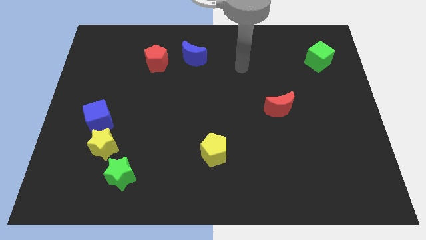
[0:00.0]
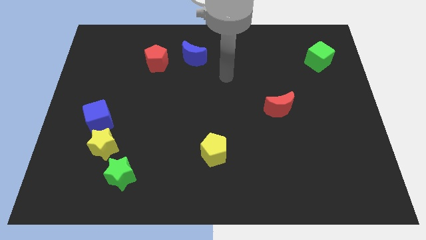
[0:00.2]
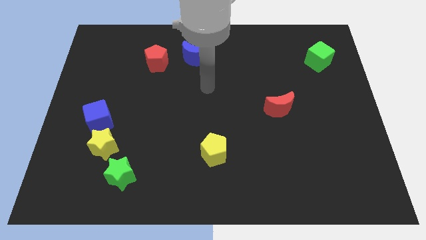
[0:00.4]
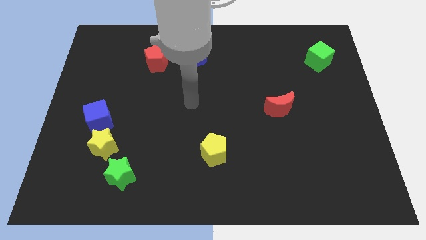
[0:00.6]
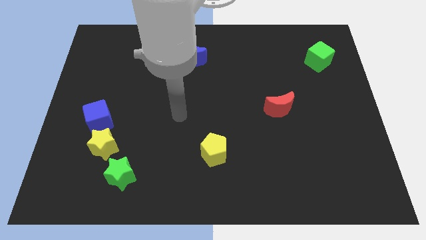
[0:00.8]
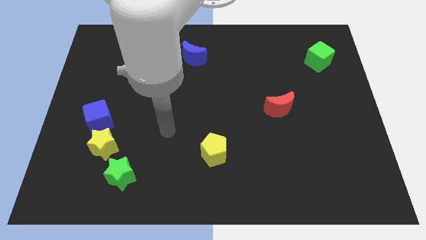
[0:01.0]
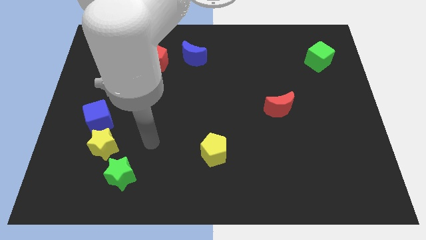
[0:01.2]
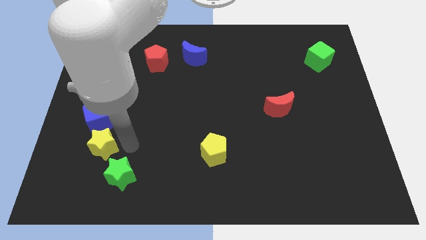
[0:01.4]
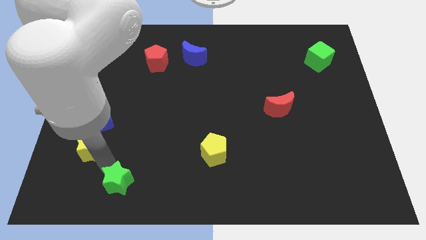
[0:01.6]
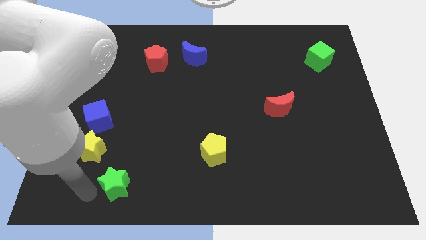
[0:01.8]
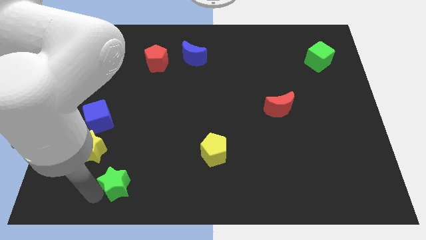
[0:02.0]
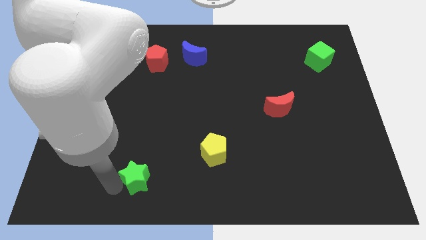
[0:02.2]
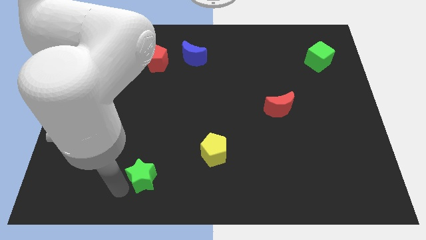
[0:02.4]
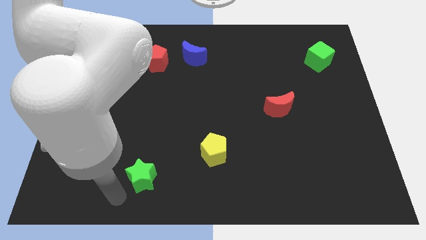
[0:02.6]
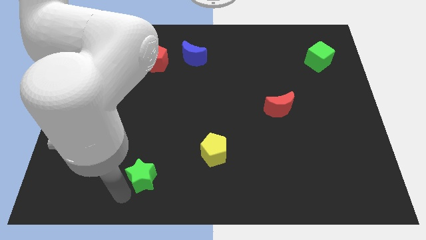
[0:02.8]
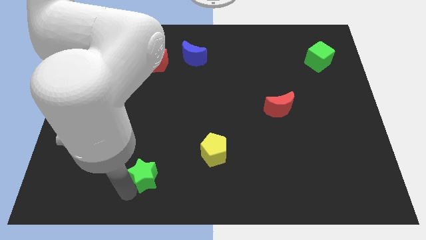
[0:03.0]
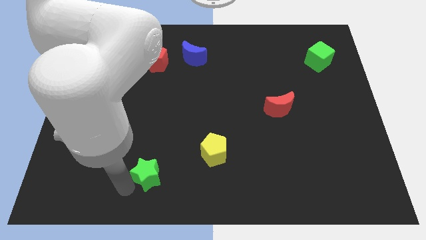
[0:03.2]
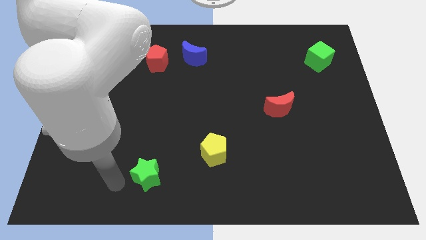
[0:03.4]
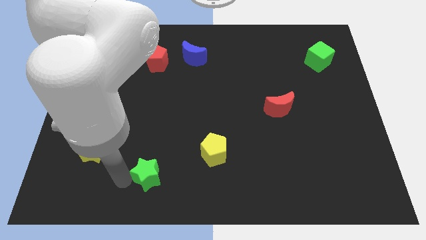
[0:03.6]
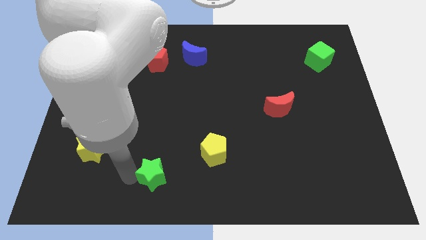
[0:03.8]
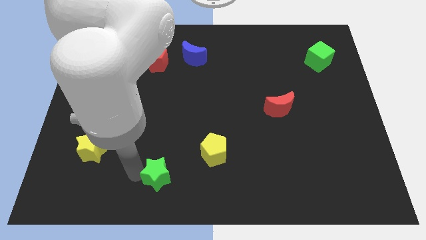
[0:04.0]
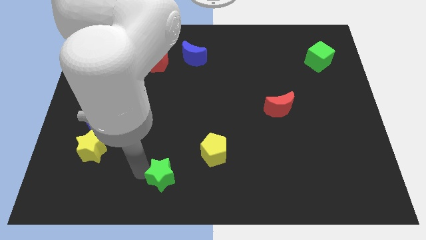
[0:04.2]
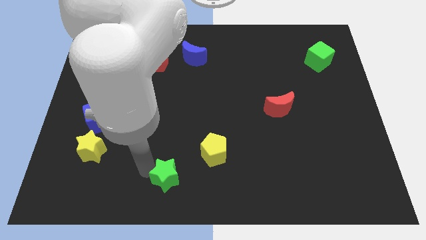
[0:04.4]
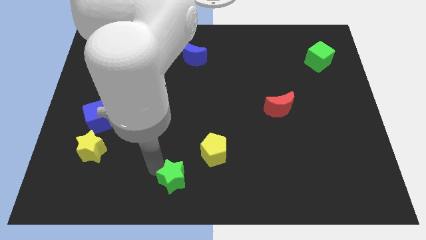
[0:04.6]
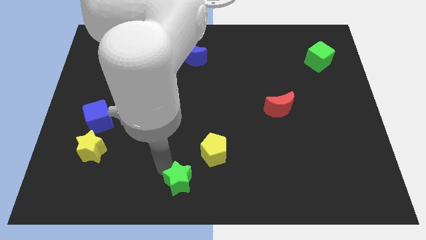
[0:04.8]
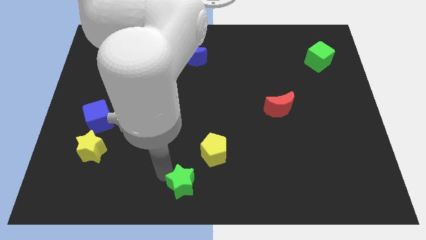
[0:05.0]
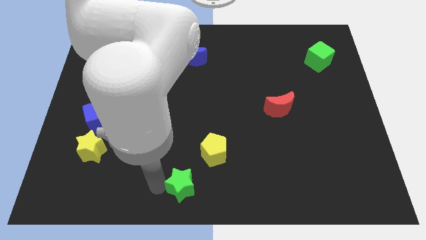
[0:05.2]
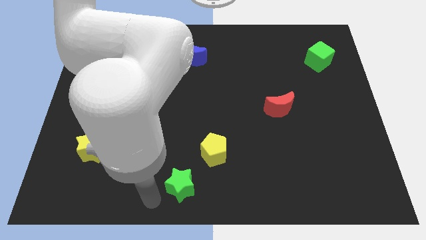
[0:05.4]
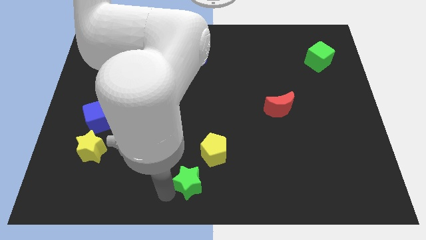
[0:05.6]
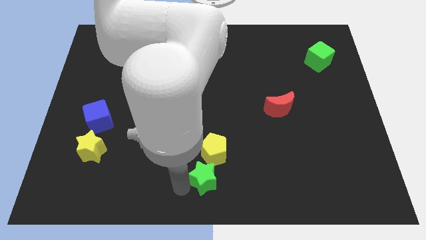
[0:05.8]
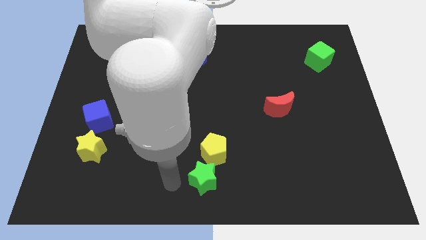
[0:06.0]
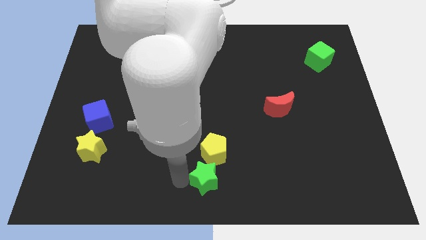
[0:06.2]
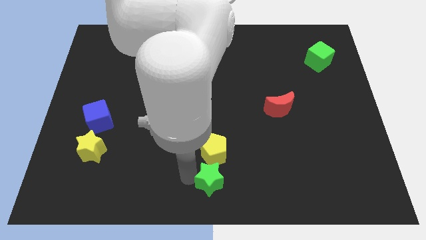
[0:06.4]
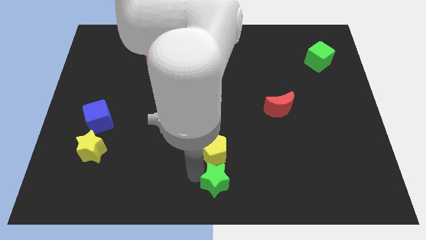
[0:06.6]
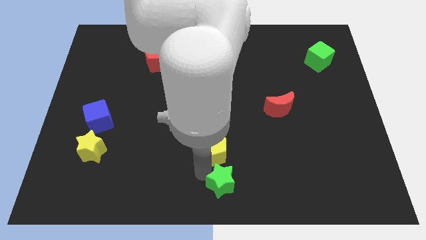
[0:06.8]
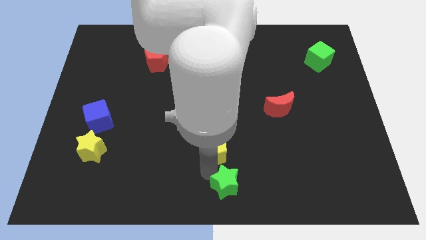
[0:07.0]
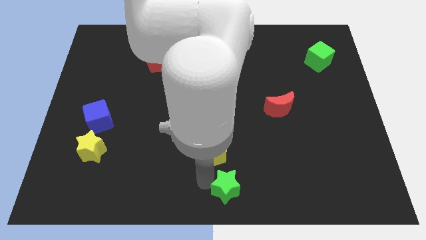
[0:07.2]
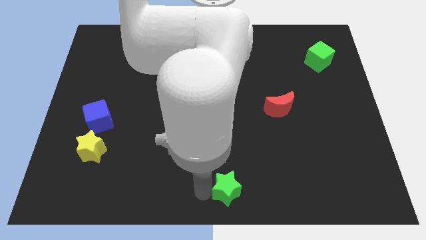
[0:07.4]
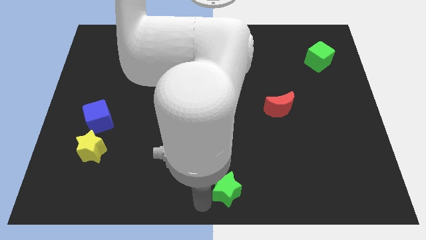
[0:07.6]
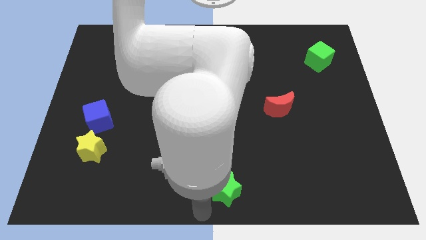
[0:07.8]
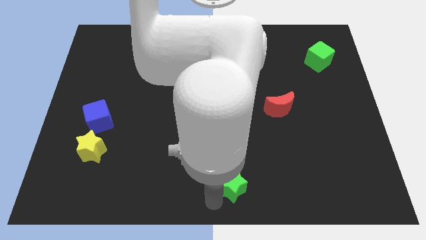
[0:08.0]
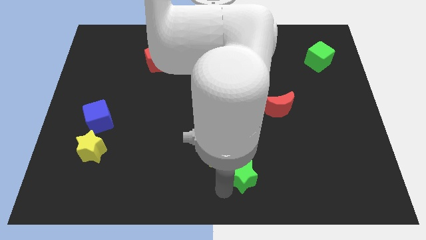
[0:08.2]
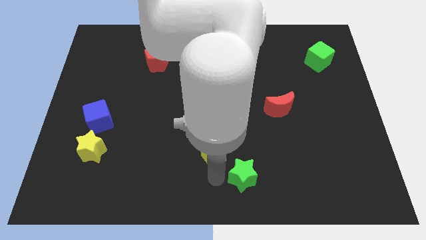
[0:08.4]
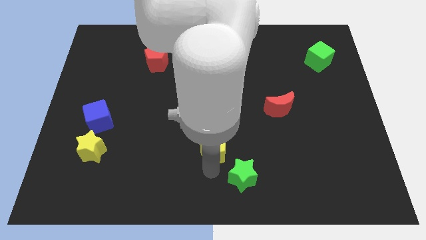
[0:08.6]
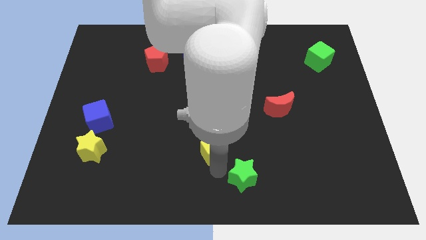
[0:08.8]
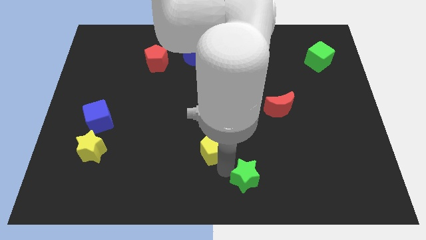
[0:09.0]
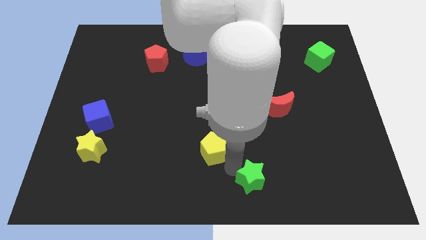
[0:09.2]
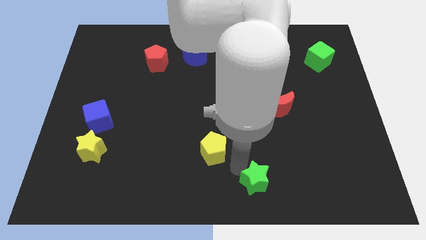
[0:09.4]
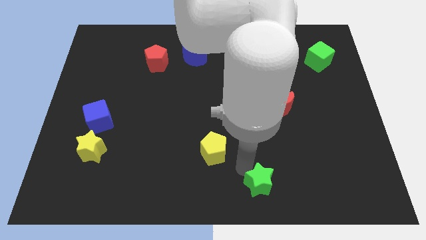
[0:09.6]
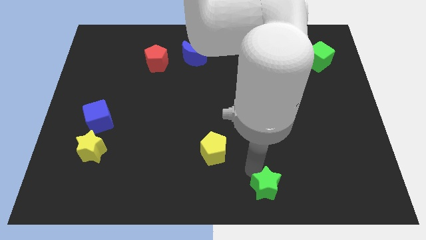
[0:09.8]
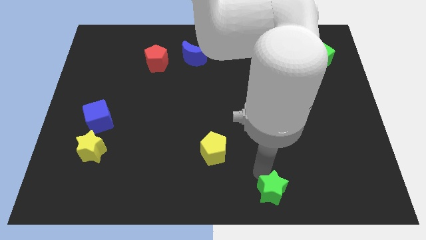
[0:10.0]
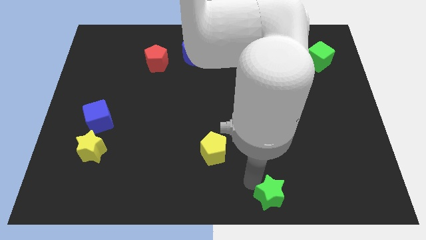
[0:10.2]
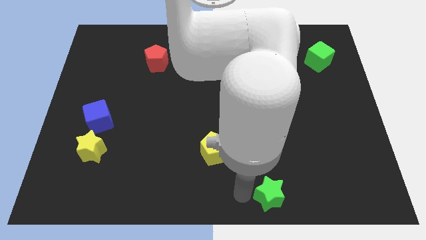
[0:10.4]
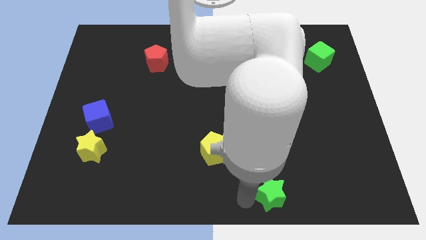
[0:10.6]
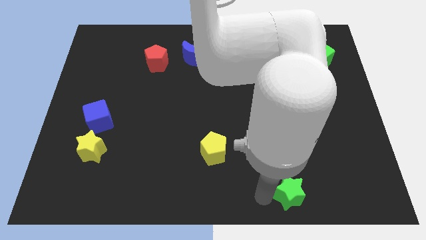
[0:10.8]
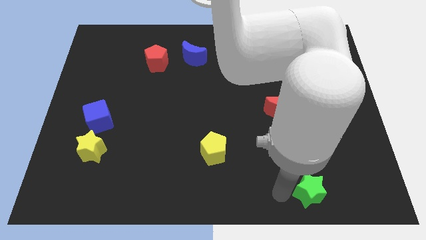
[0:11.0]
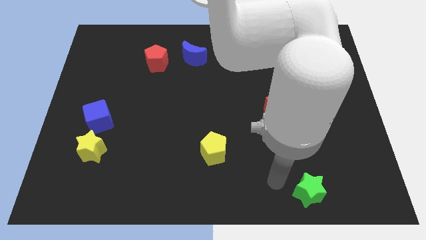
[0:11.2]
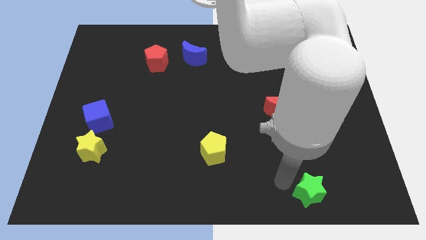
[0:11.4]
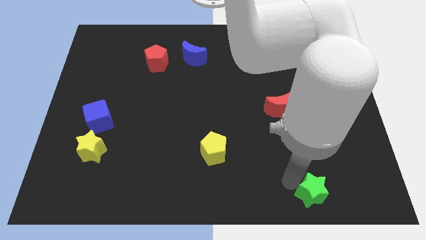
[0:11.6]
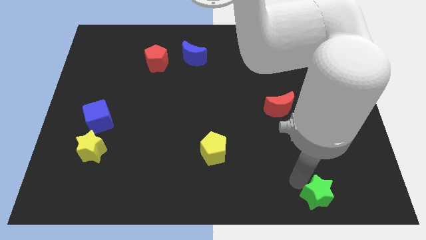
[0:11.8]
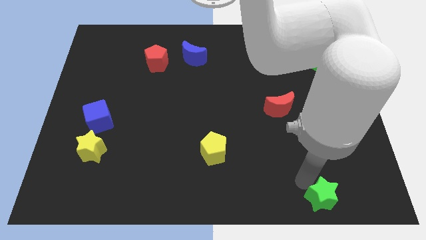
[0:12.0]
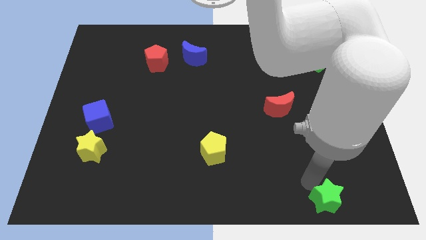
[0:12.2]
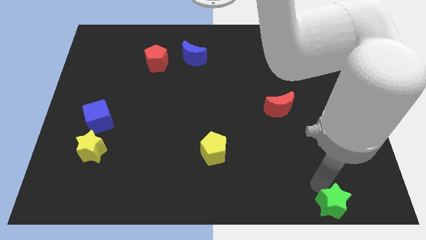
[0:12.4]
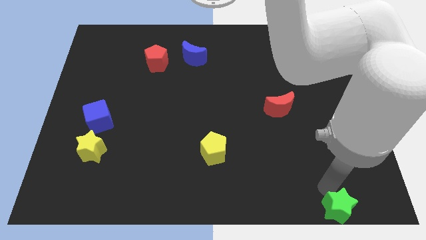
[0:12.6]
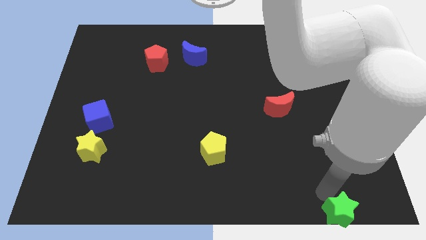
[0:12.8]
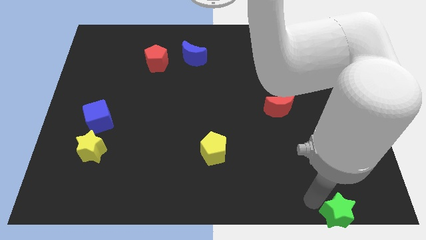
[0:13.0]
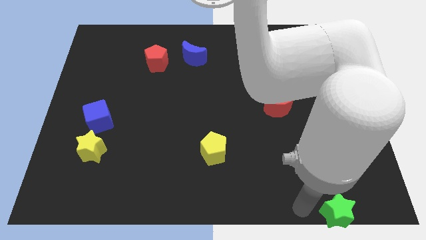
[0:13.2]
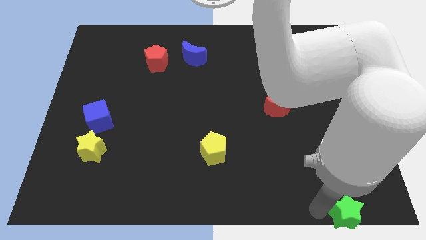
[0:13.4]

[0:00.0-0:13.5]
slide the green star to the bottom right of the board

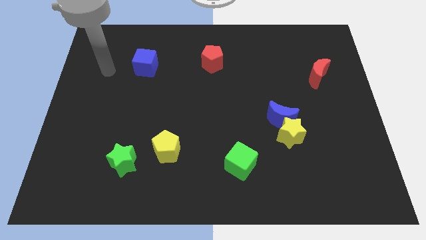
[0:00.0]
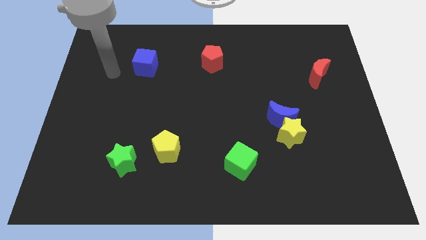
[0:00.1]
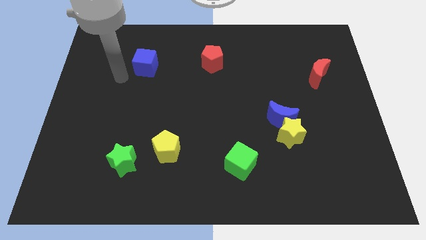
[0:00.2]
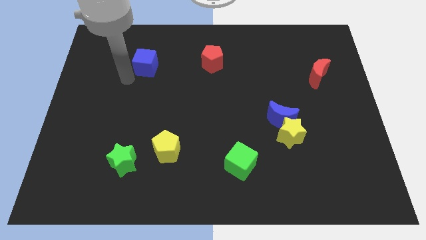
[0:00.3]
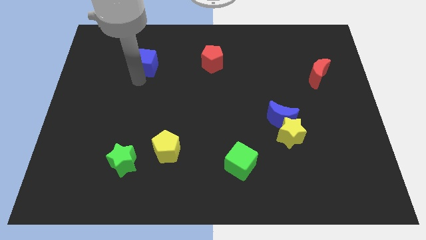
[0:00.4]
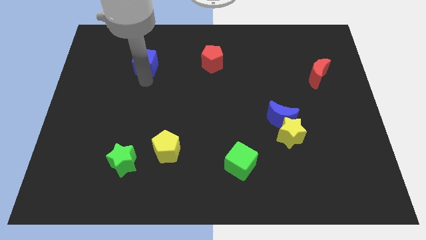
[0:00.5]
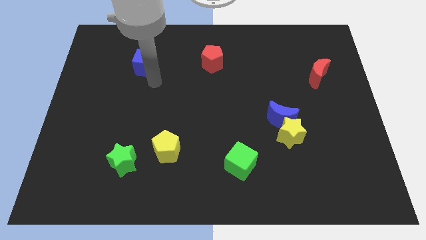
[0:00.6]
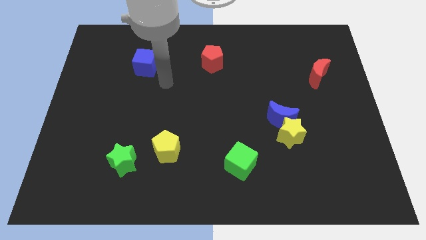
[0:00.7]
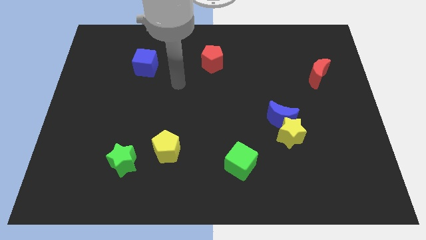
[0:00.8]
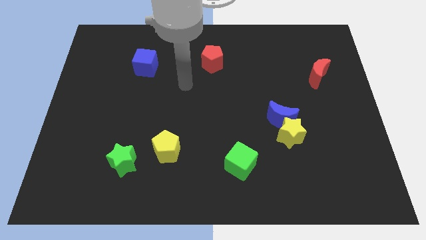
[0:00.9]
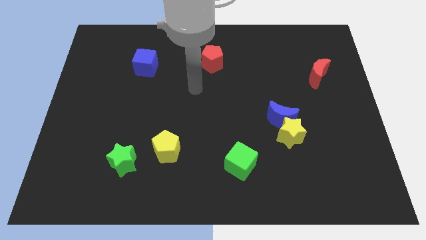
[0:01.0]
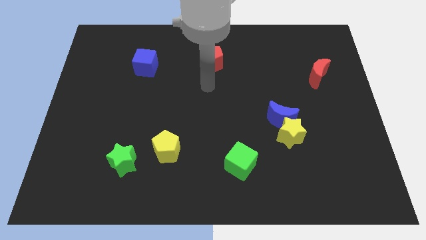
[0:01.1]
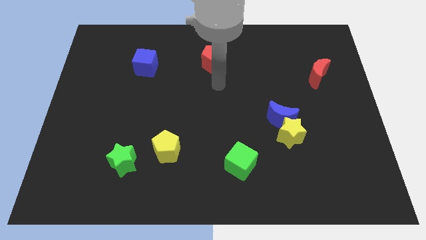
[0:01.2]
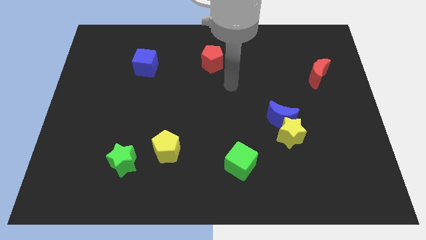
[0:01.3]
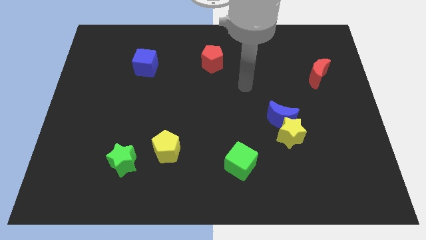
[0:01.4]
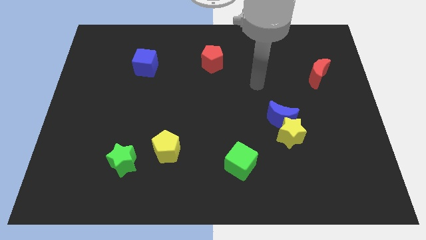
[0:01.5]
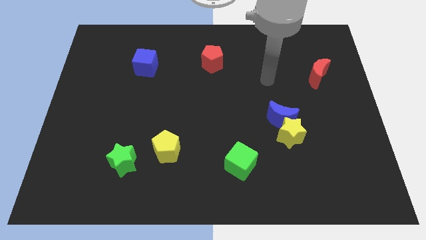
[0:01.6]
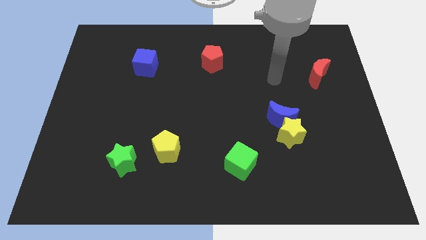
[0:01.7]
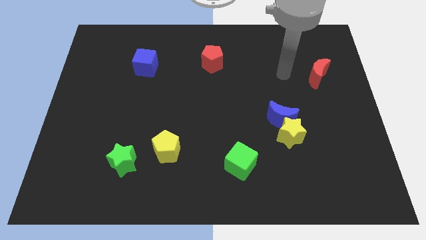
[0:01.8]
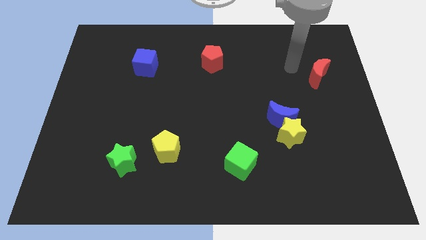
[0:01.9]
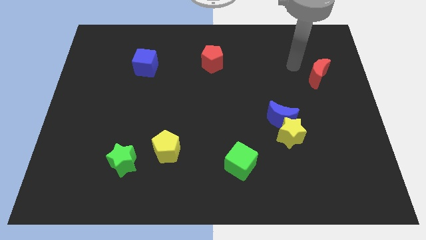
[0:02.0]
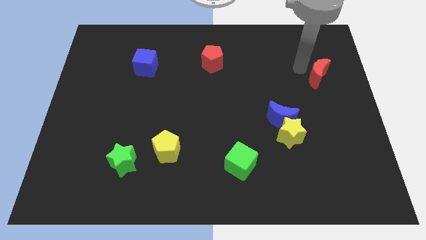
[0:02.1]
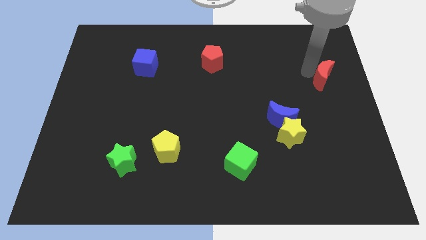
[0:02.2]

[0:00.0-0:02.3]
push the red moon to the center right
